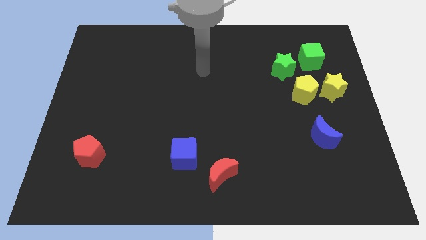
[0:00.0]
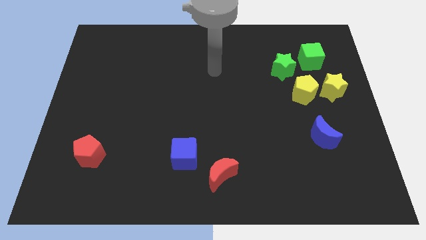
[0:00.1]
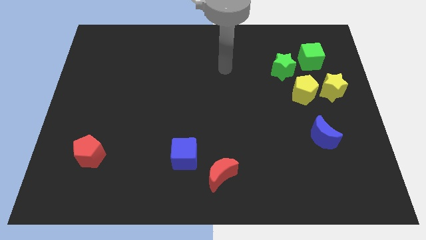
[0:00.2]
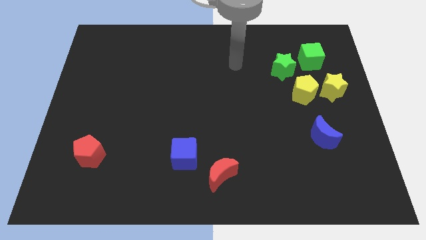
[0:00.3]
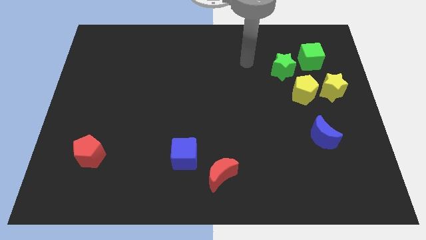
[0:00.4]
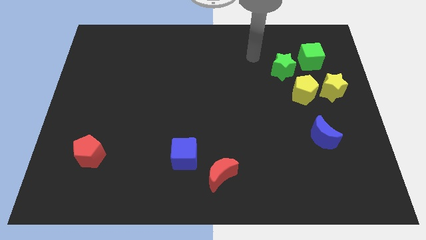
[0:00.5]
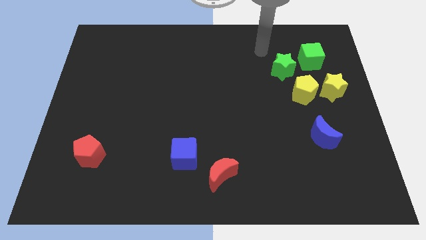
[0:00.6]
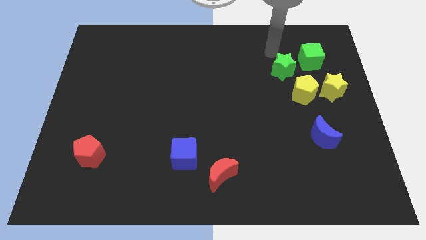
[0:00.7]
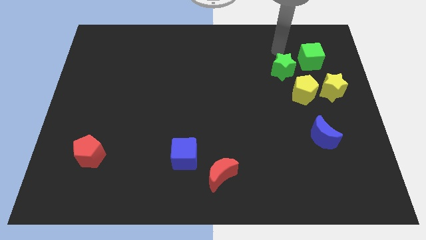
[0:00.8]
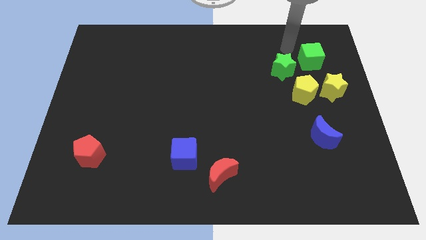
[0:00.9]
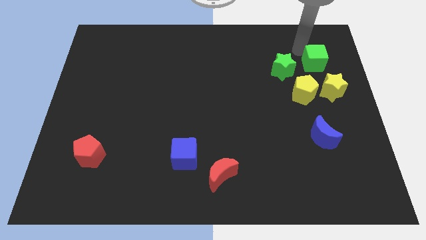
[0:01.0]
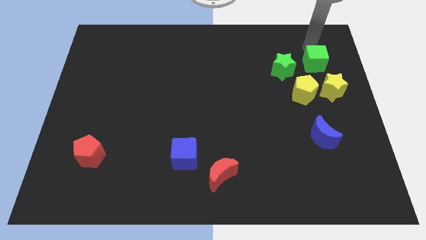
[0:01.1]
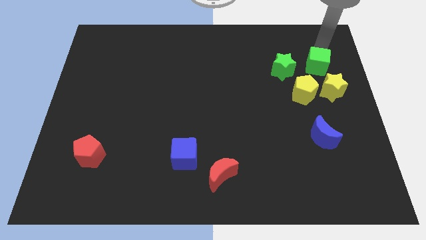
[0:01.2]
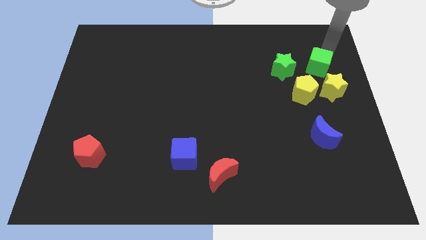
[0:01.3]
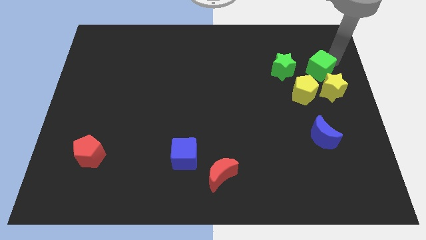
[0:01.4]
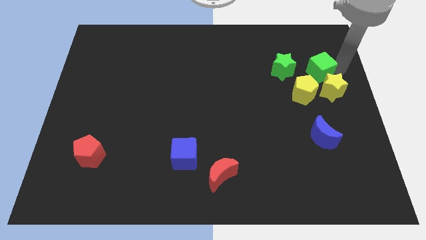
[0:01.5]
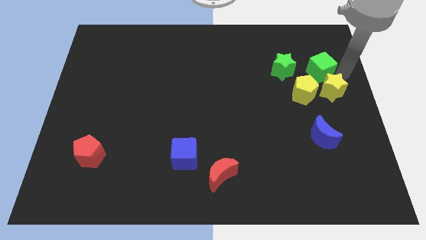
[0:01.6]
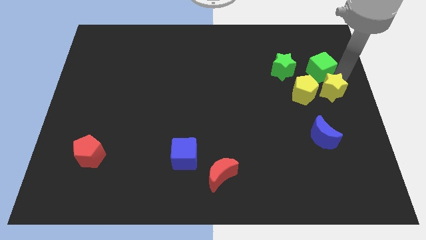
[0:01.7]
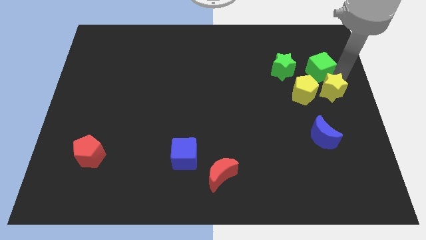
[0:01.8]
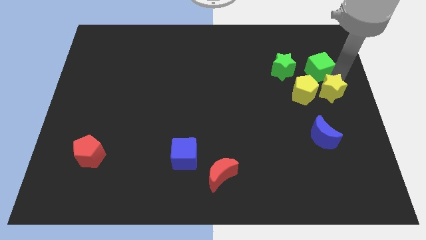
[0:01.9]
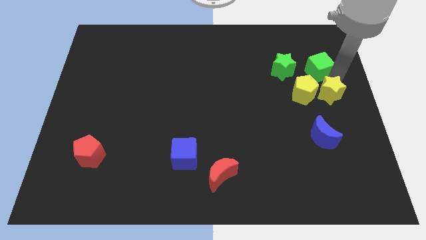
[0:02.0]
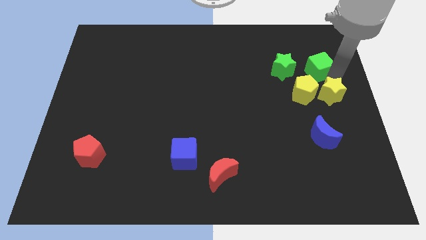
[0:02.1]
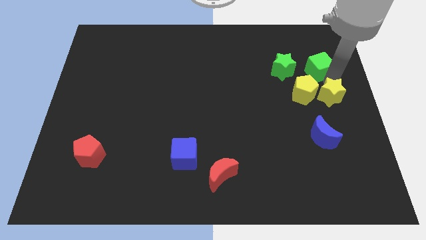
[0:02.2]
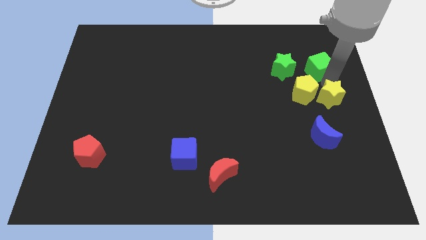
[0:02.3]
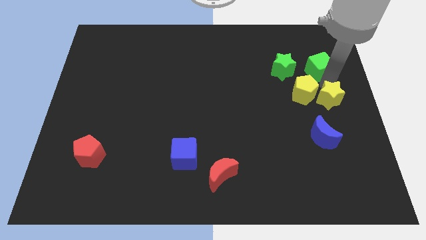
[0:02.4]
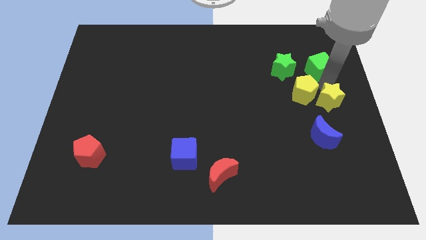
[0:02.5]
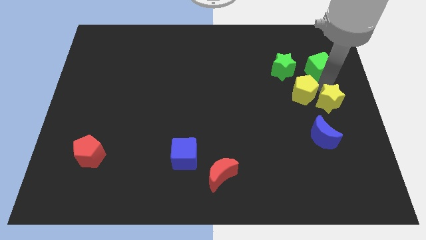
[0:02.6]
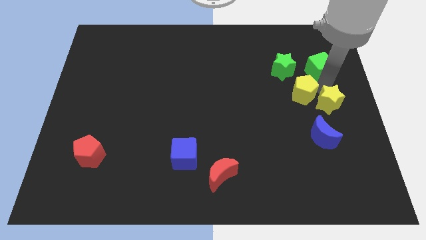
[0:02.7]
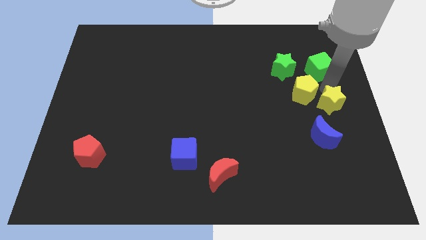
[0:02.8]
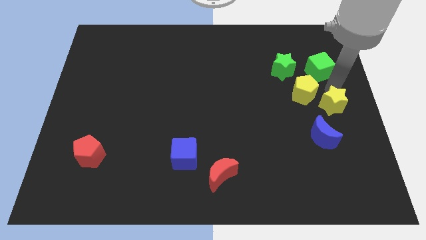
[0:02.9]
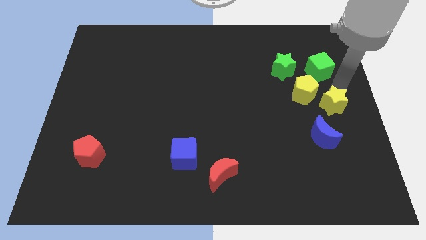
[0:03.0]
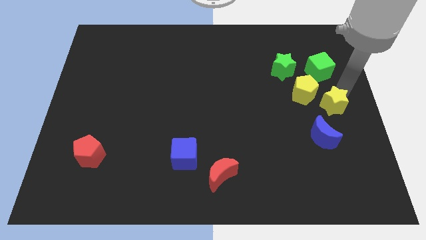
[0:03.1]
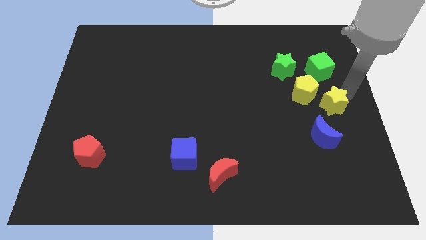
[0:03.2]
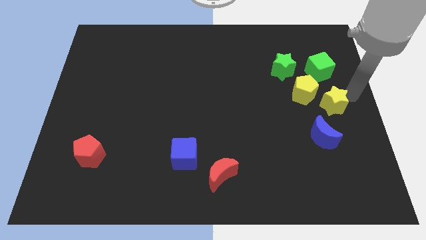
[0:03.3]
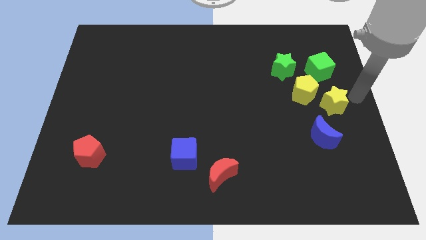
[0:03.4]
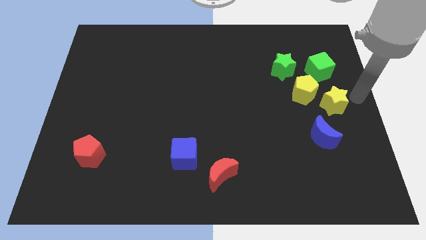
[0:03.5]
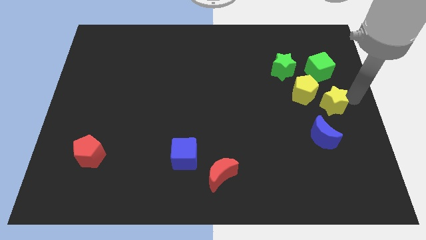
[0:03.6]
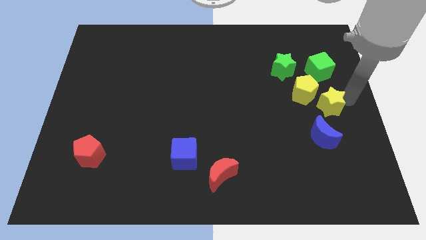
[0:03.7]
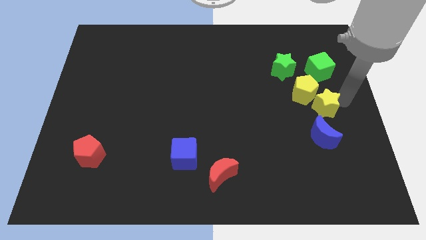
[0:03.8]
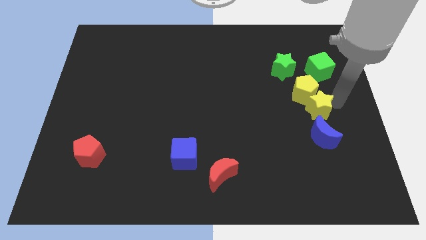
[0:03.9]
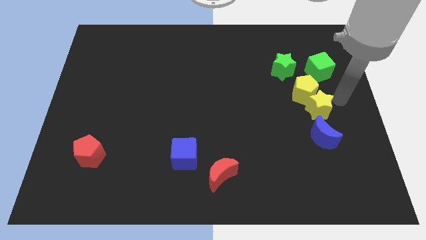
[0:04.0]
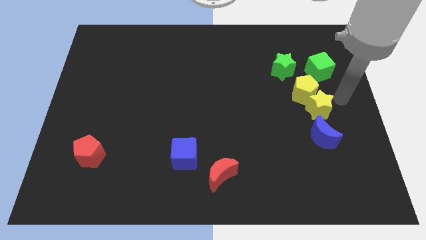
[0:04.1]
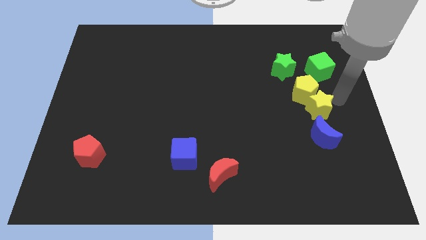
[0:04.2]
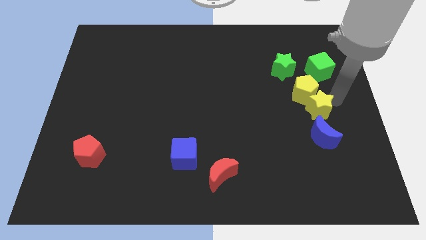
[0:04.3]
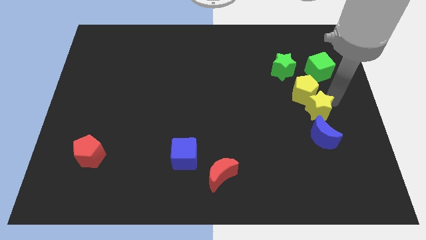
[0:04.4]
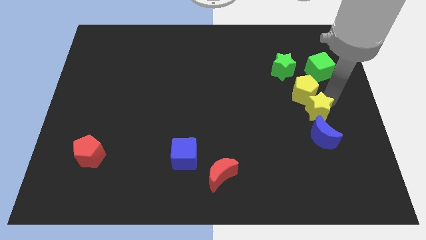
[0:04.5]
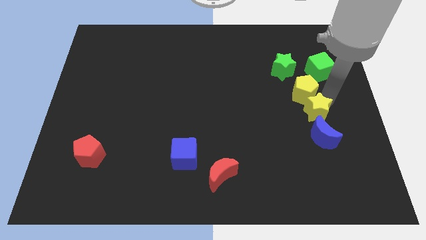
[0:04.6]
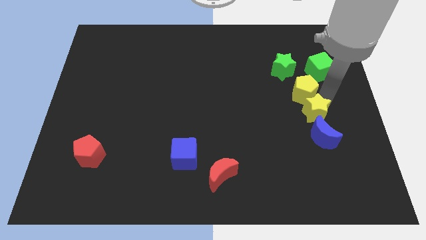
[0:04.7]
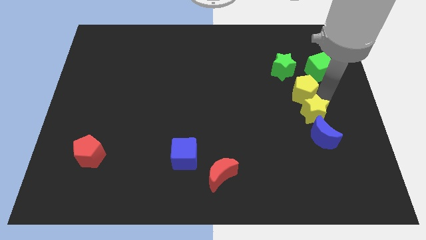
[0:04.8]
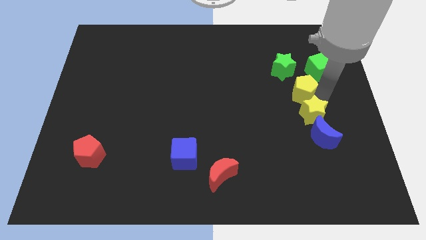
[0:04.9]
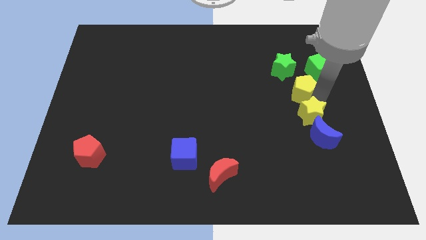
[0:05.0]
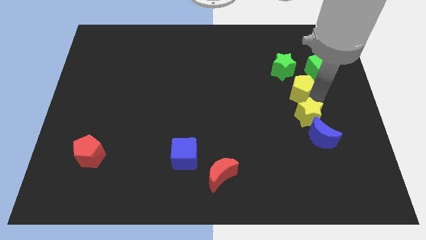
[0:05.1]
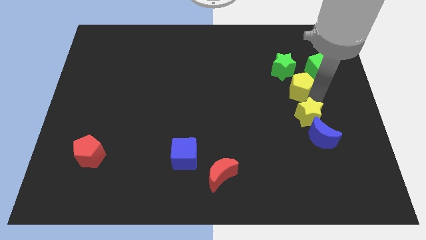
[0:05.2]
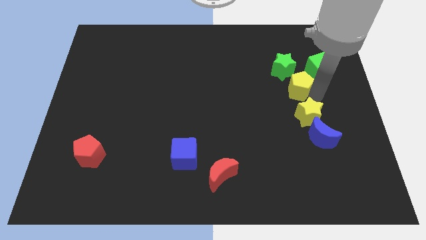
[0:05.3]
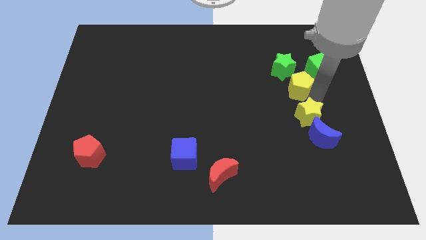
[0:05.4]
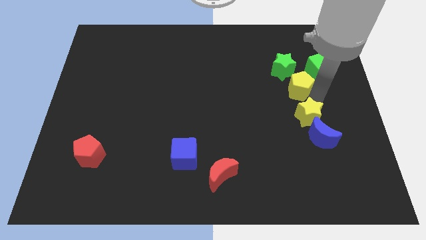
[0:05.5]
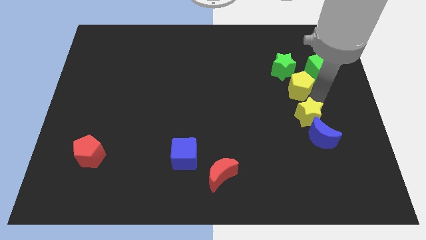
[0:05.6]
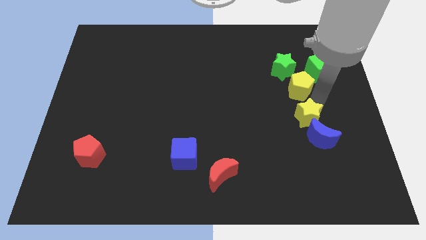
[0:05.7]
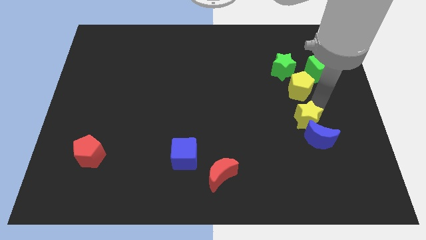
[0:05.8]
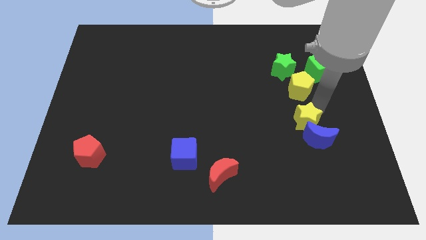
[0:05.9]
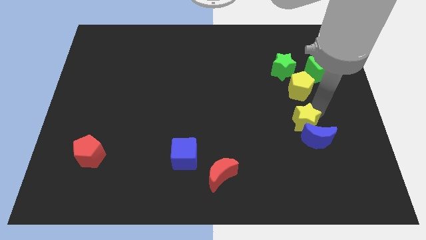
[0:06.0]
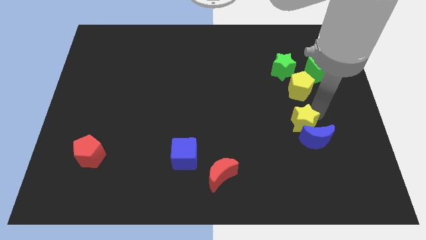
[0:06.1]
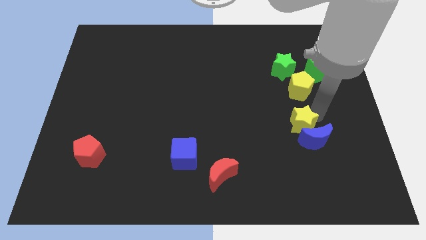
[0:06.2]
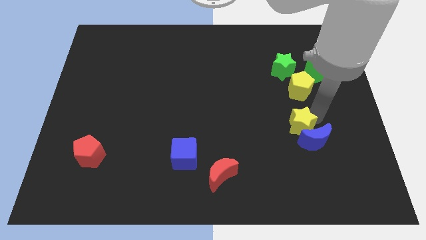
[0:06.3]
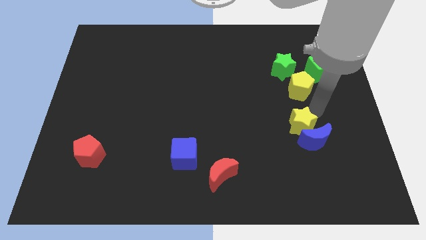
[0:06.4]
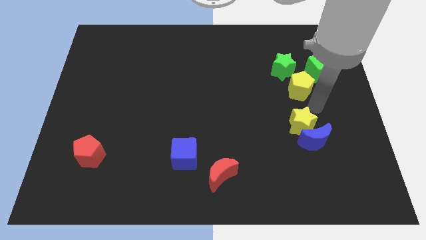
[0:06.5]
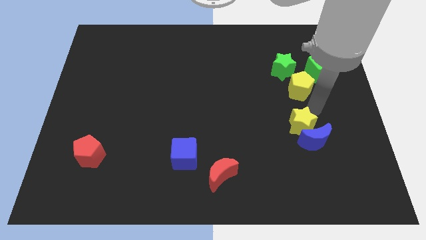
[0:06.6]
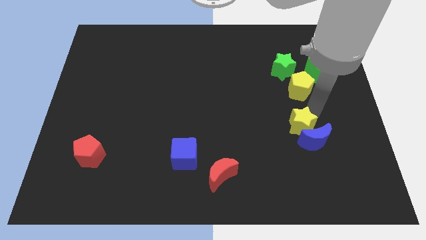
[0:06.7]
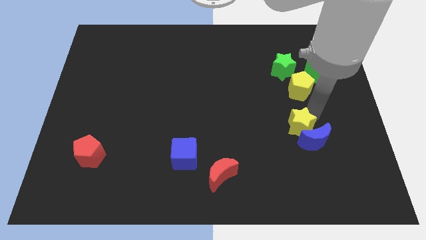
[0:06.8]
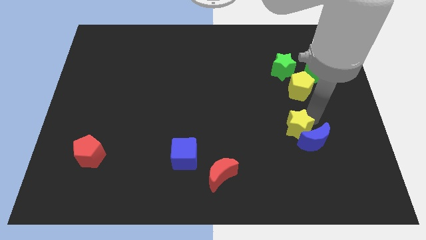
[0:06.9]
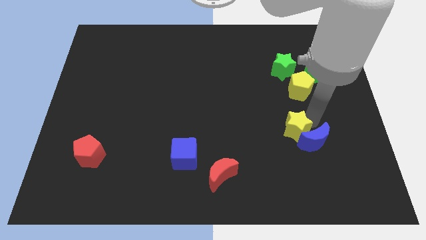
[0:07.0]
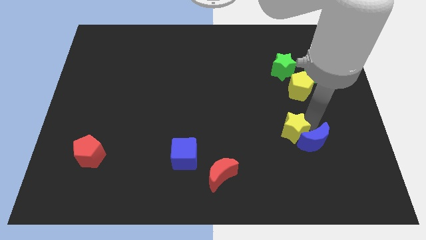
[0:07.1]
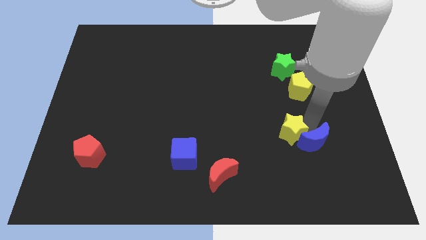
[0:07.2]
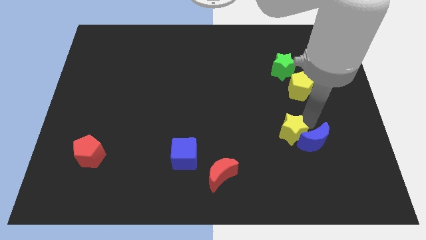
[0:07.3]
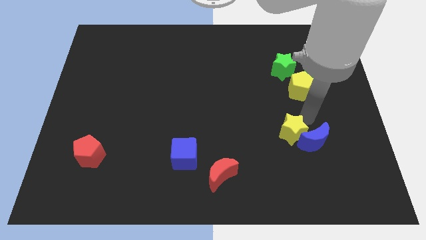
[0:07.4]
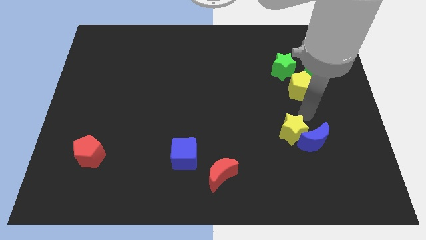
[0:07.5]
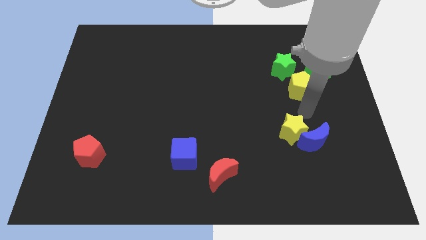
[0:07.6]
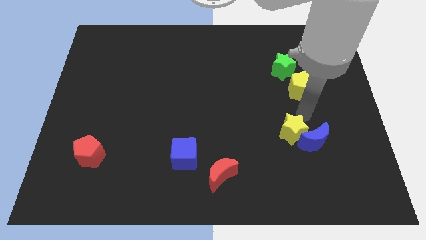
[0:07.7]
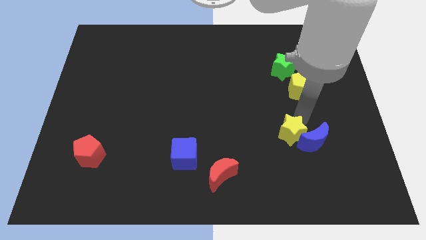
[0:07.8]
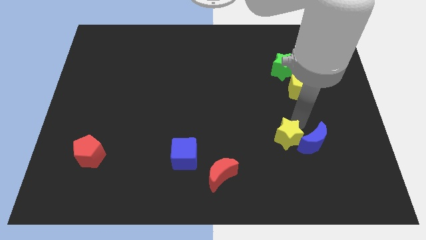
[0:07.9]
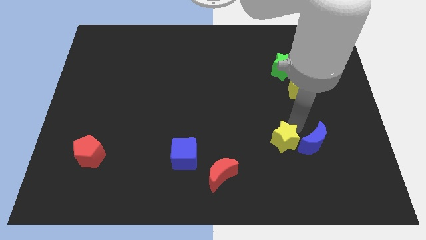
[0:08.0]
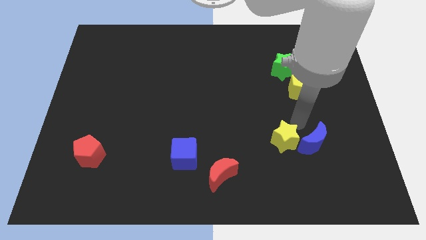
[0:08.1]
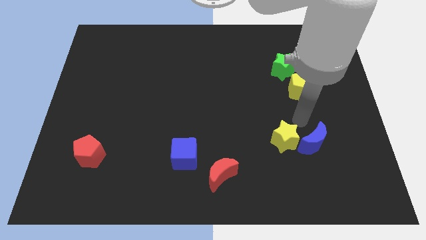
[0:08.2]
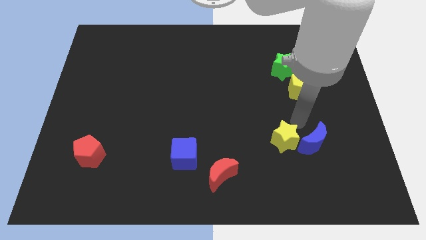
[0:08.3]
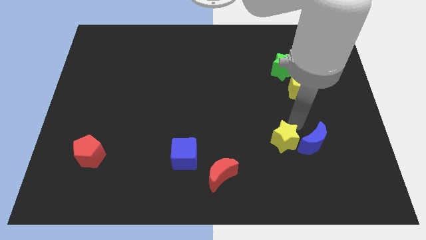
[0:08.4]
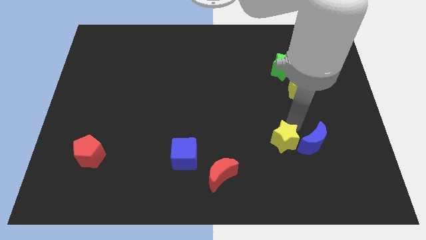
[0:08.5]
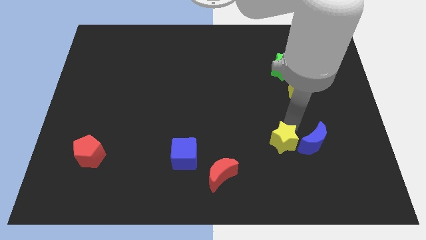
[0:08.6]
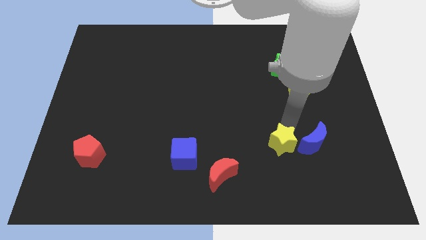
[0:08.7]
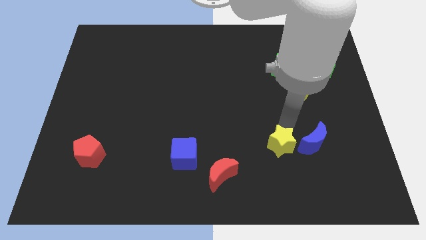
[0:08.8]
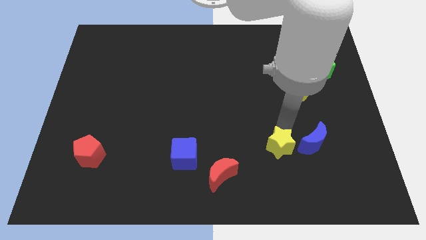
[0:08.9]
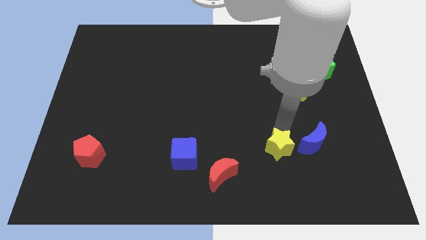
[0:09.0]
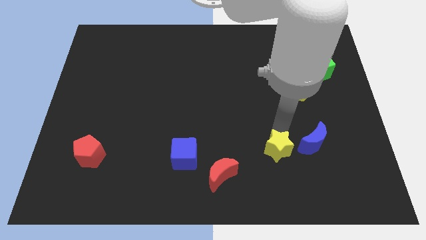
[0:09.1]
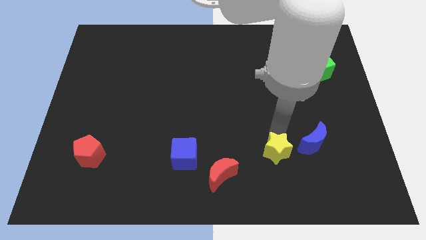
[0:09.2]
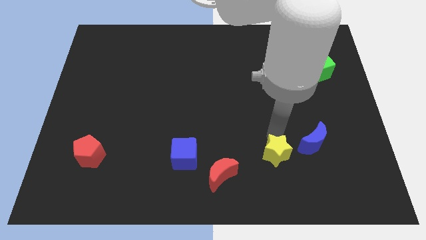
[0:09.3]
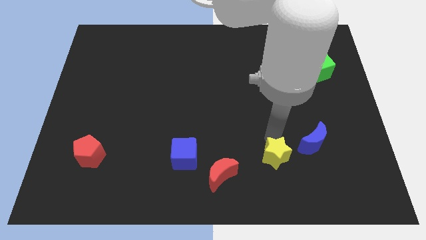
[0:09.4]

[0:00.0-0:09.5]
push the yellow star right of the red moon
